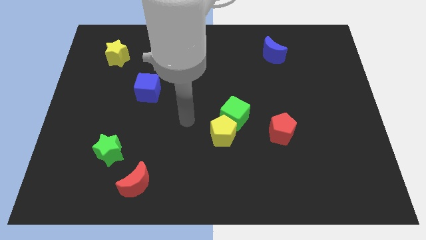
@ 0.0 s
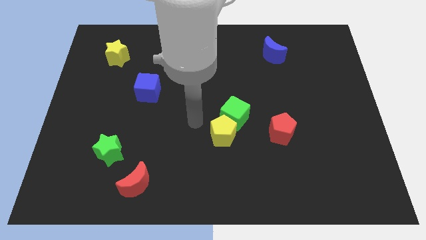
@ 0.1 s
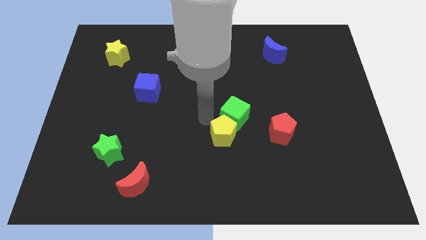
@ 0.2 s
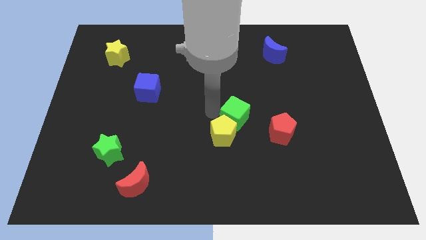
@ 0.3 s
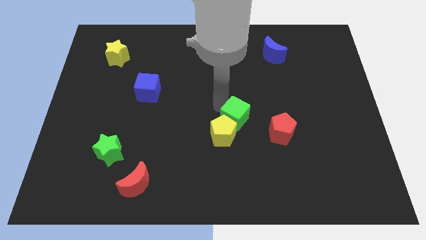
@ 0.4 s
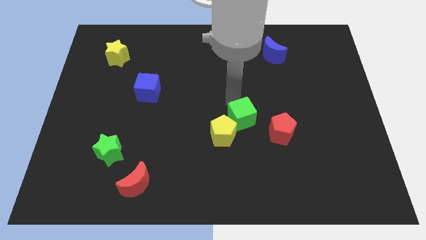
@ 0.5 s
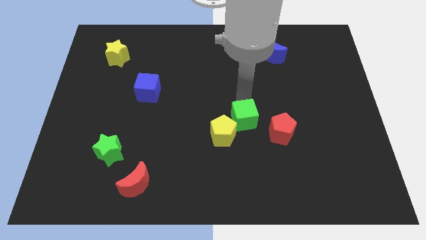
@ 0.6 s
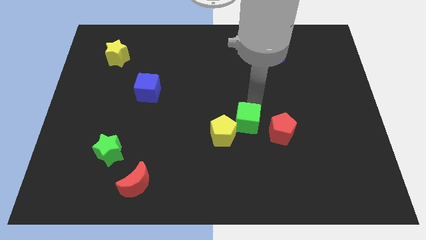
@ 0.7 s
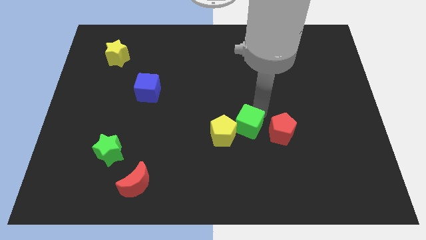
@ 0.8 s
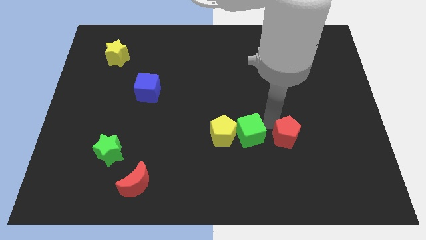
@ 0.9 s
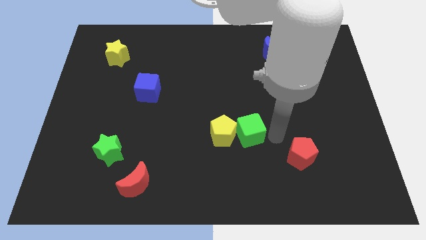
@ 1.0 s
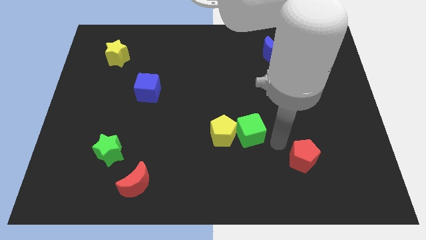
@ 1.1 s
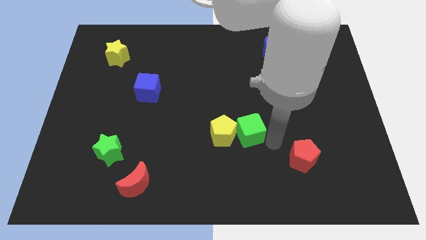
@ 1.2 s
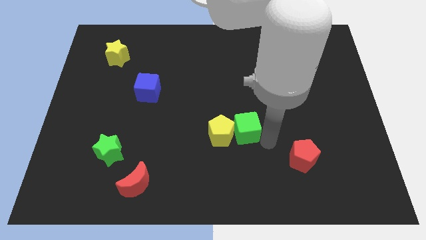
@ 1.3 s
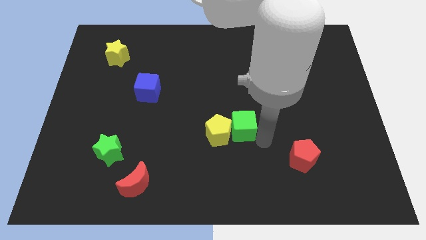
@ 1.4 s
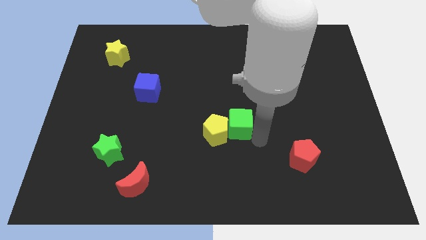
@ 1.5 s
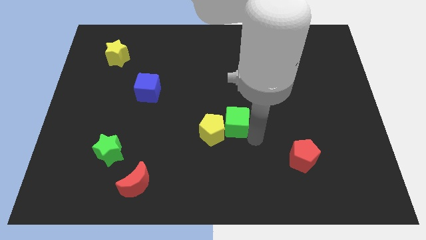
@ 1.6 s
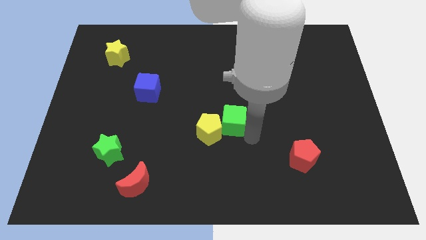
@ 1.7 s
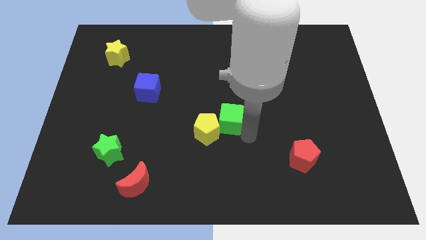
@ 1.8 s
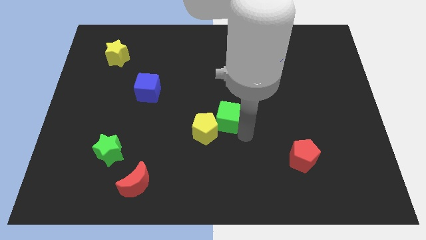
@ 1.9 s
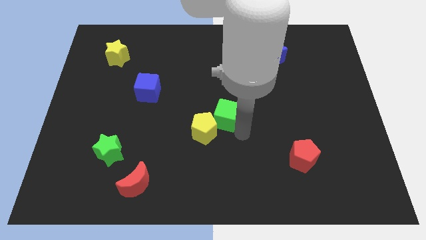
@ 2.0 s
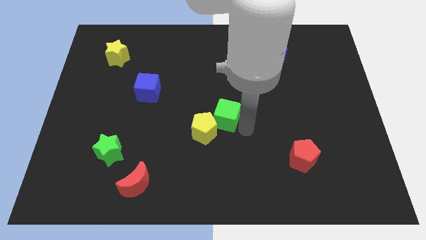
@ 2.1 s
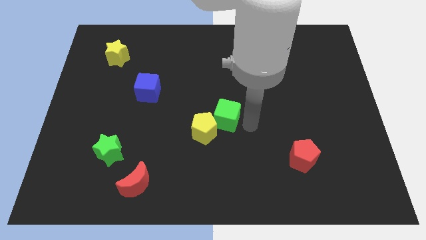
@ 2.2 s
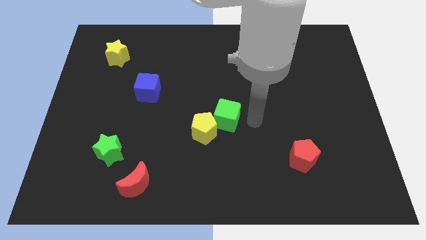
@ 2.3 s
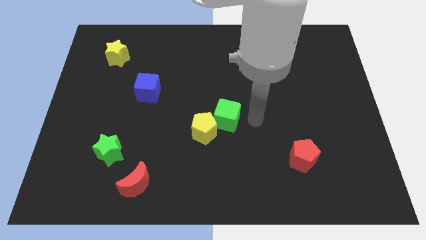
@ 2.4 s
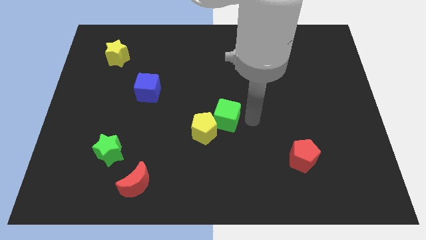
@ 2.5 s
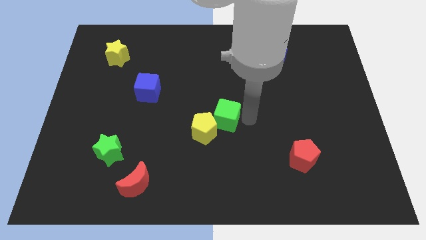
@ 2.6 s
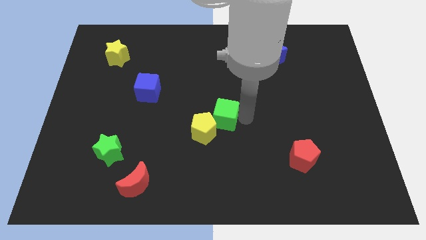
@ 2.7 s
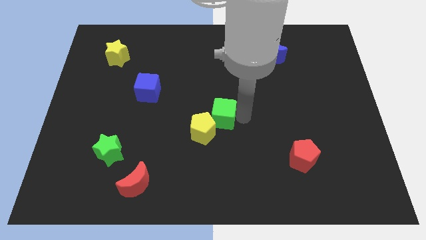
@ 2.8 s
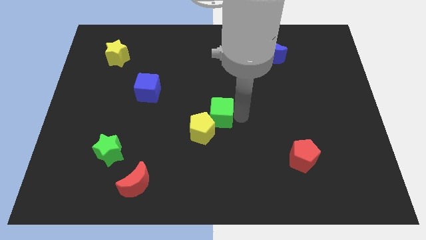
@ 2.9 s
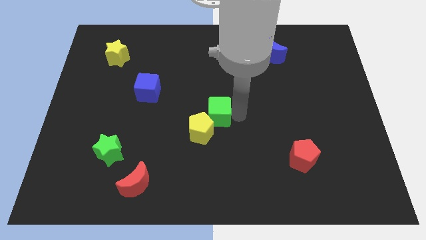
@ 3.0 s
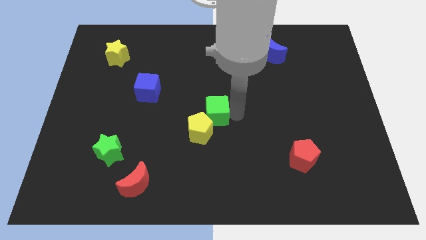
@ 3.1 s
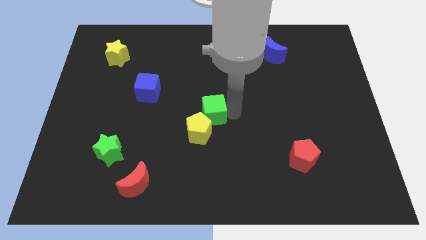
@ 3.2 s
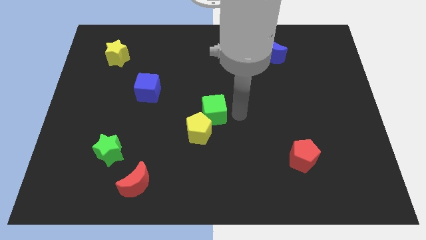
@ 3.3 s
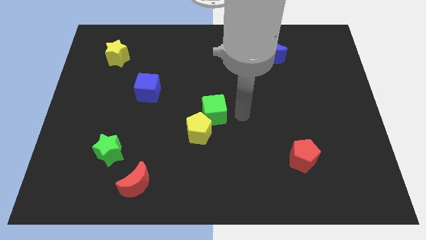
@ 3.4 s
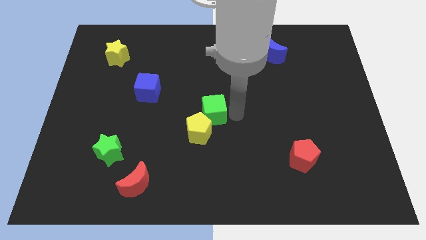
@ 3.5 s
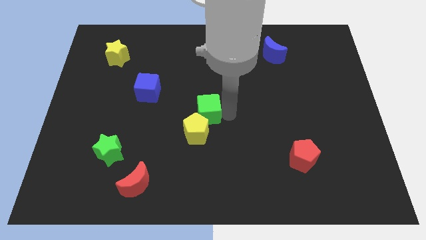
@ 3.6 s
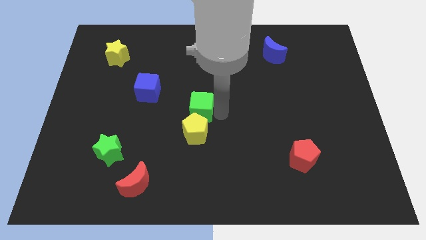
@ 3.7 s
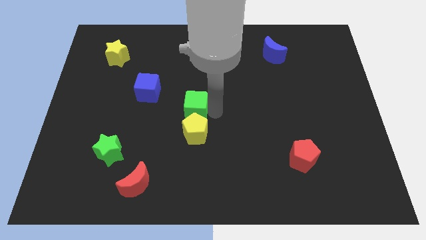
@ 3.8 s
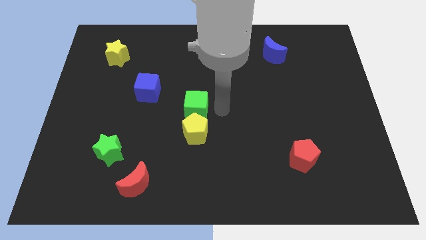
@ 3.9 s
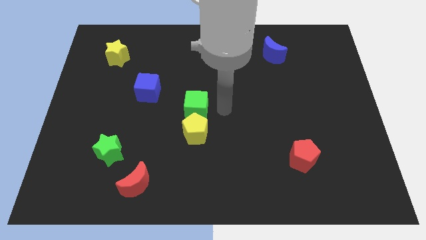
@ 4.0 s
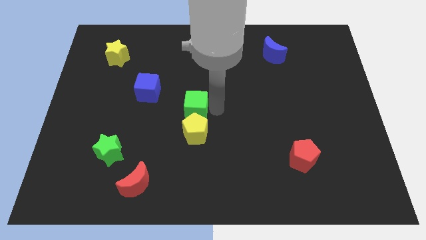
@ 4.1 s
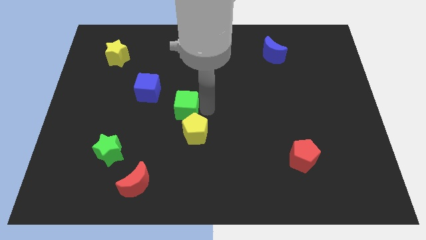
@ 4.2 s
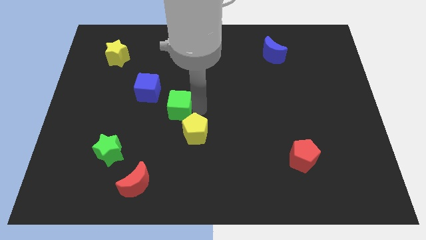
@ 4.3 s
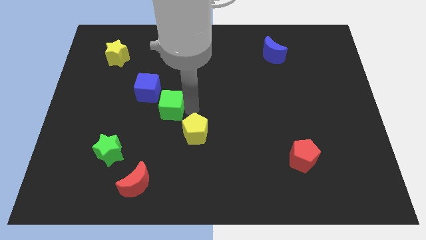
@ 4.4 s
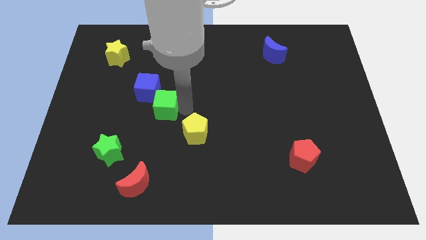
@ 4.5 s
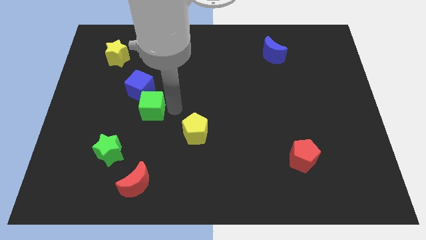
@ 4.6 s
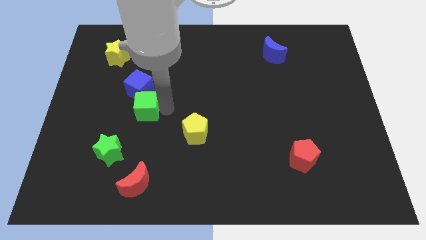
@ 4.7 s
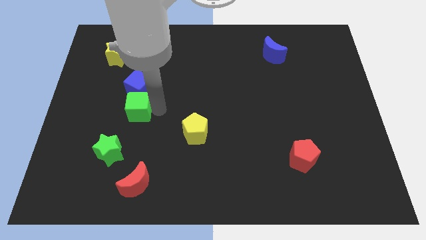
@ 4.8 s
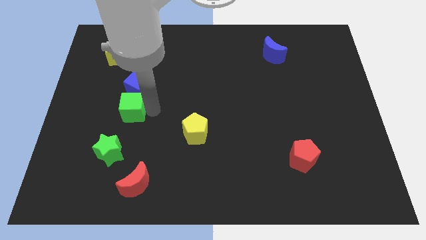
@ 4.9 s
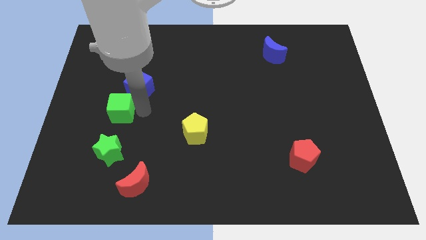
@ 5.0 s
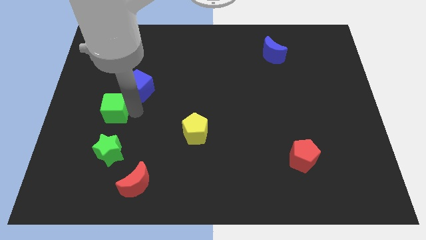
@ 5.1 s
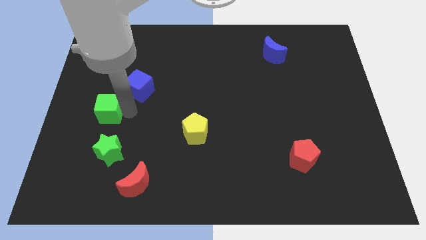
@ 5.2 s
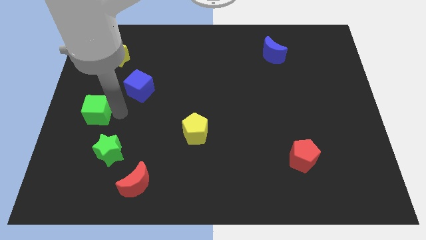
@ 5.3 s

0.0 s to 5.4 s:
push the green cube to the center left

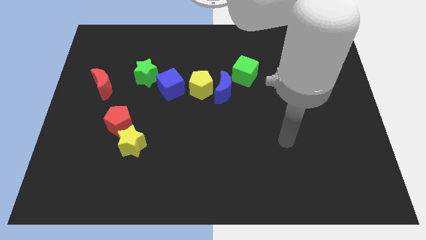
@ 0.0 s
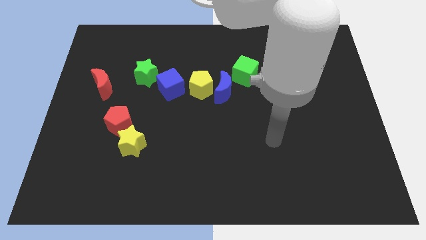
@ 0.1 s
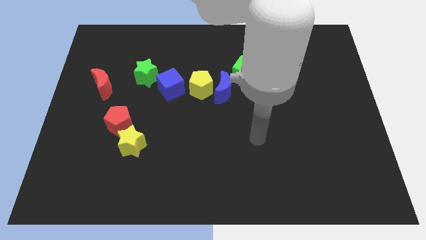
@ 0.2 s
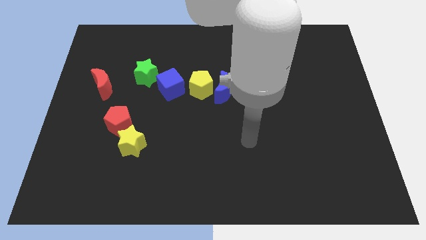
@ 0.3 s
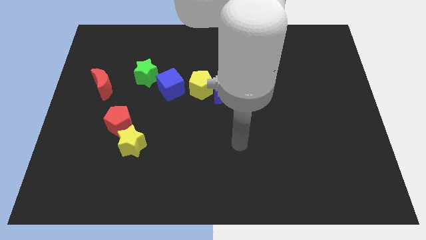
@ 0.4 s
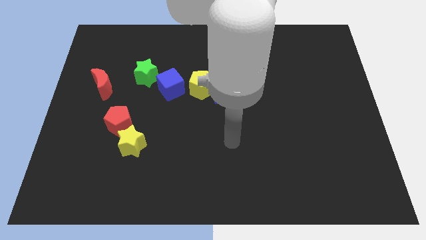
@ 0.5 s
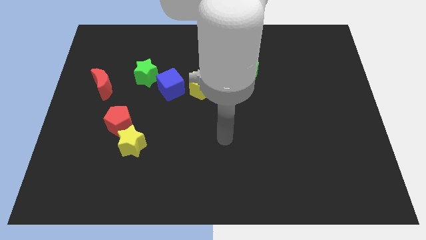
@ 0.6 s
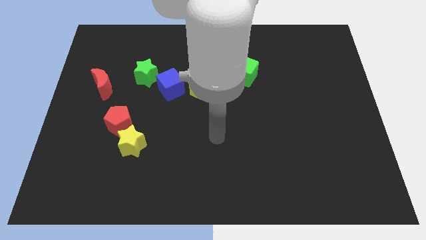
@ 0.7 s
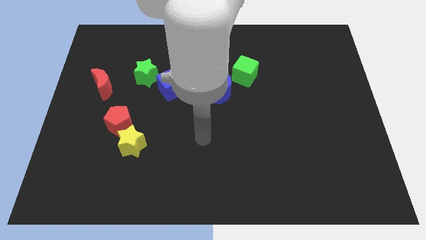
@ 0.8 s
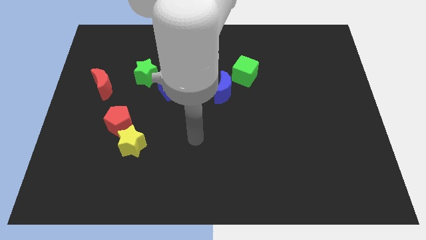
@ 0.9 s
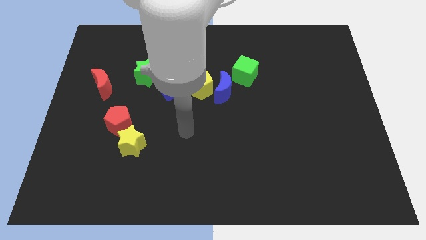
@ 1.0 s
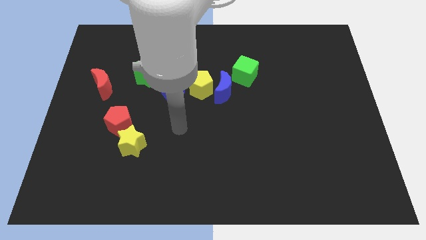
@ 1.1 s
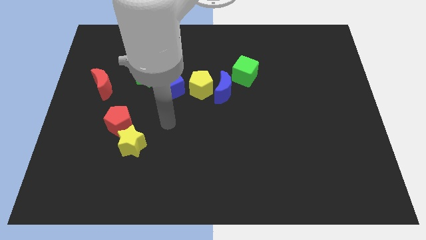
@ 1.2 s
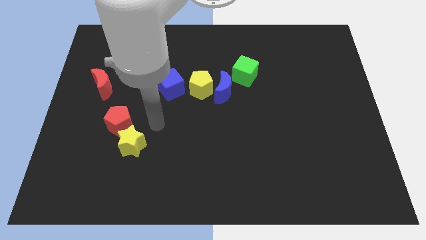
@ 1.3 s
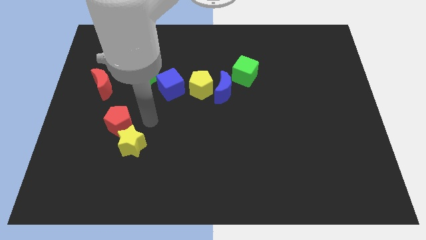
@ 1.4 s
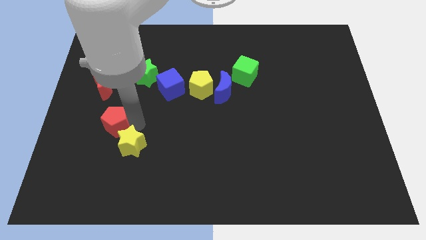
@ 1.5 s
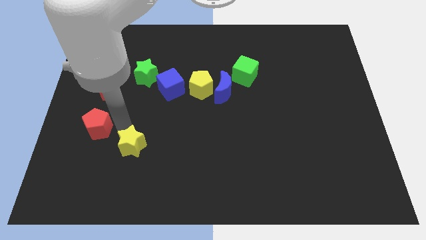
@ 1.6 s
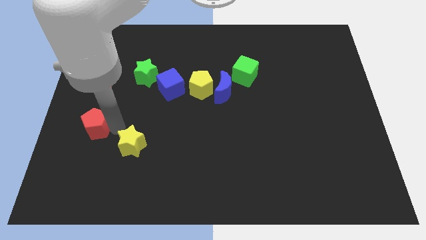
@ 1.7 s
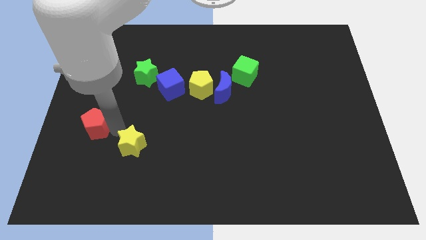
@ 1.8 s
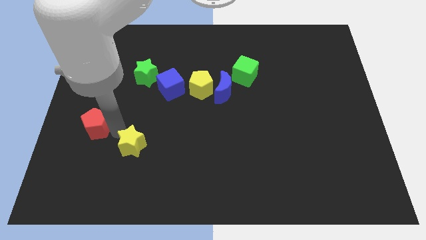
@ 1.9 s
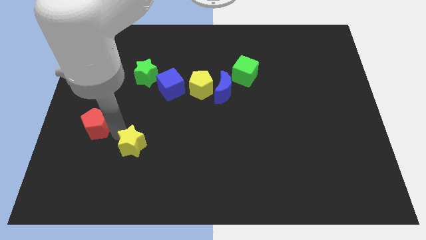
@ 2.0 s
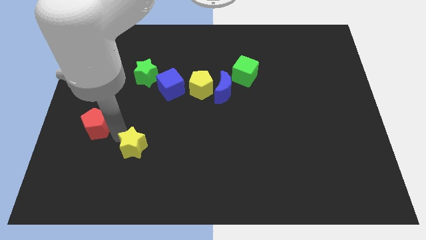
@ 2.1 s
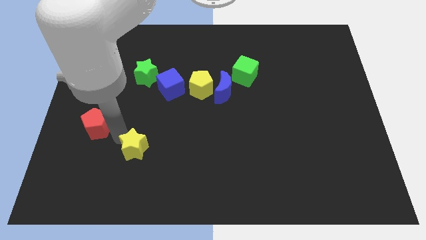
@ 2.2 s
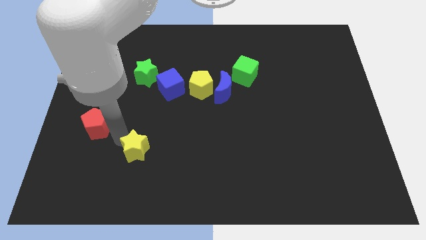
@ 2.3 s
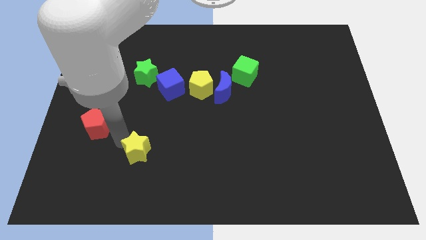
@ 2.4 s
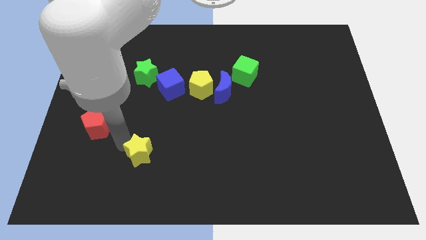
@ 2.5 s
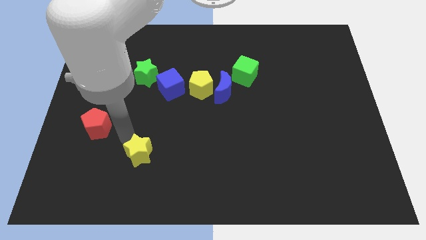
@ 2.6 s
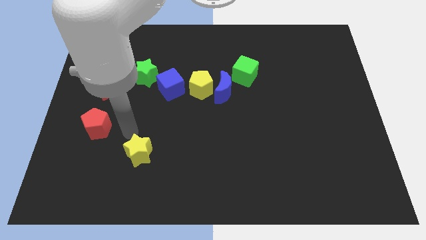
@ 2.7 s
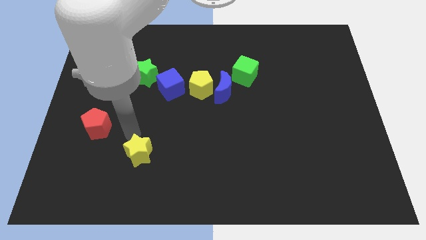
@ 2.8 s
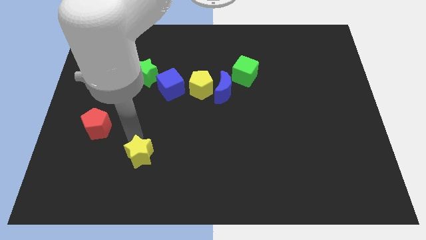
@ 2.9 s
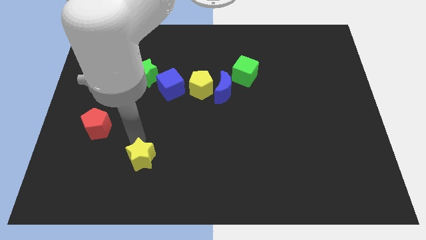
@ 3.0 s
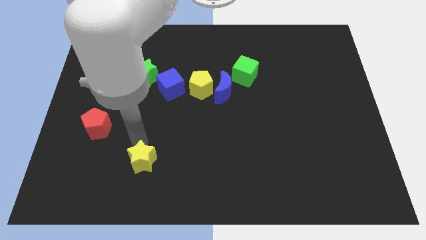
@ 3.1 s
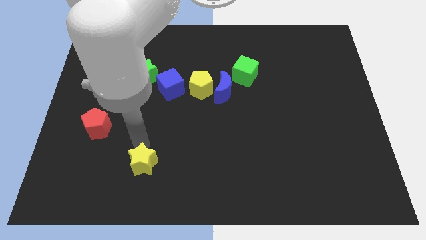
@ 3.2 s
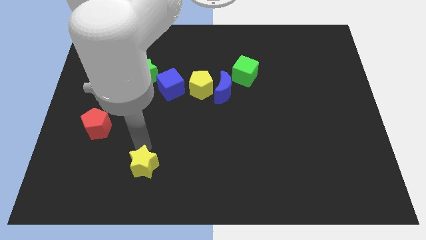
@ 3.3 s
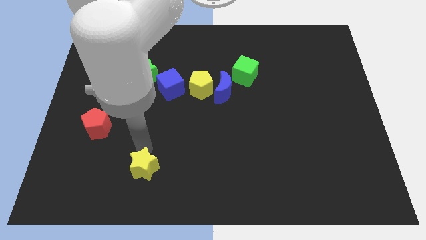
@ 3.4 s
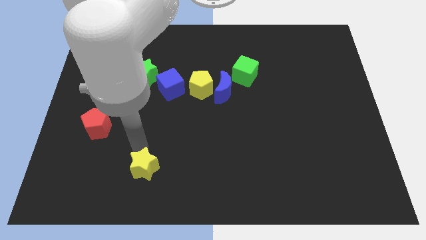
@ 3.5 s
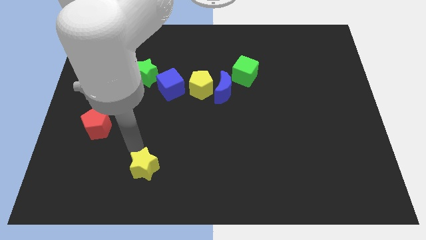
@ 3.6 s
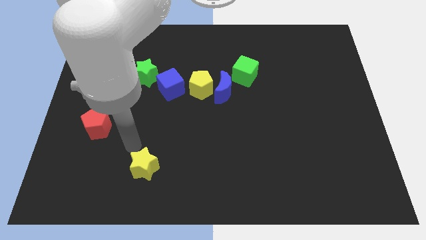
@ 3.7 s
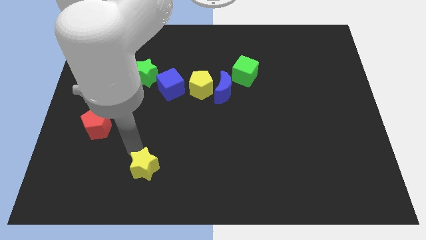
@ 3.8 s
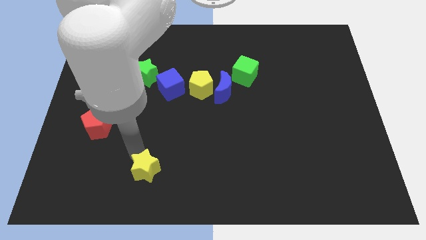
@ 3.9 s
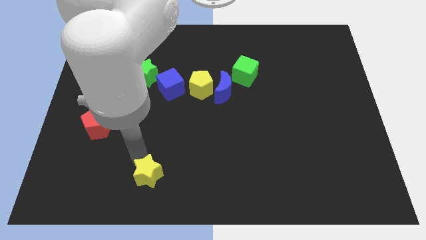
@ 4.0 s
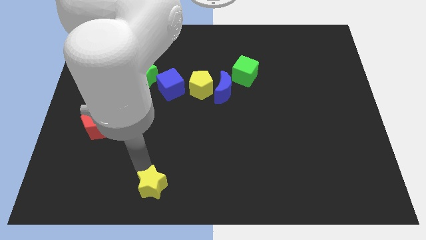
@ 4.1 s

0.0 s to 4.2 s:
push the yellow star to the bottom
